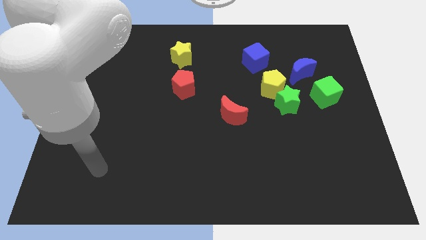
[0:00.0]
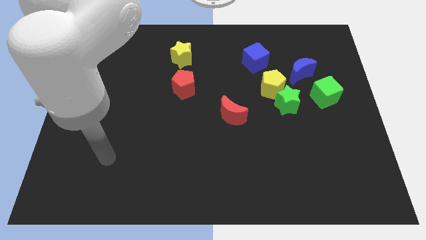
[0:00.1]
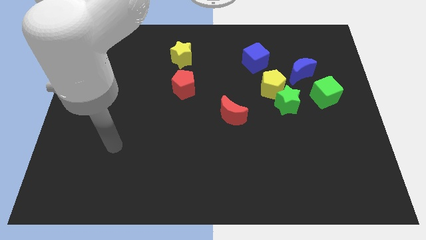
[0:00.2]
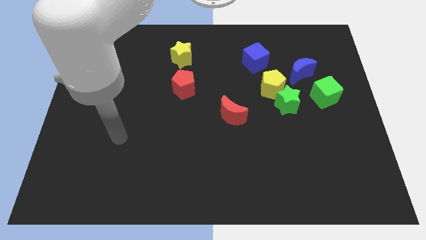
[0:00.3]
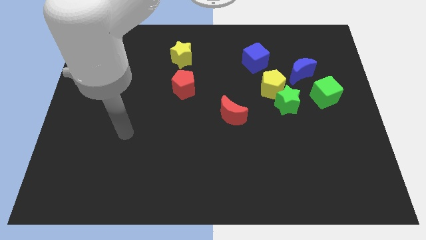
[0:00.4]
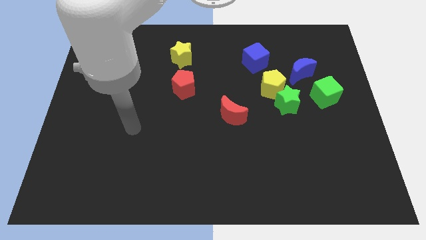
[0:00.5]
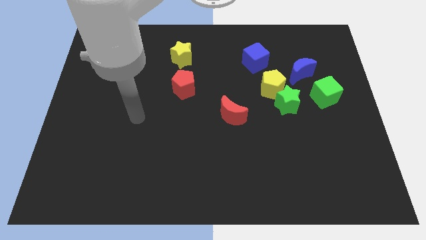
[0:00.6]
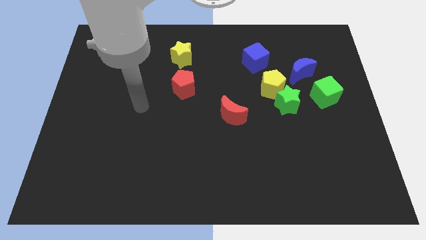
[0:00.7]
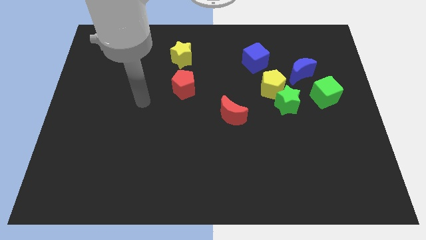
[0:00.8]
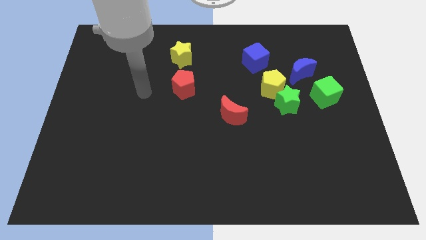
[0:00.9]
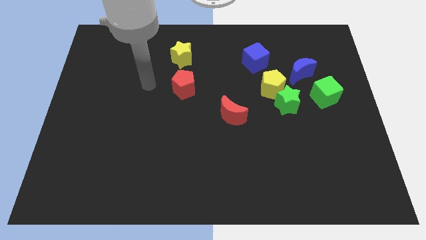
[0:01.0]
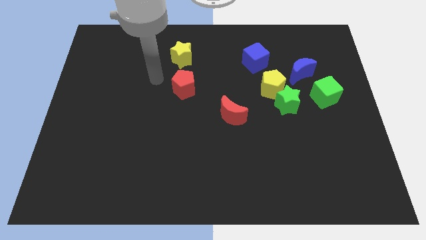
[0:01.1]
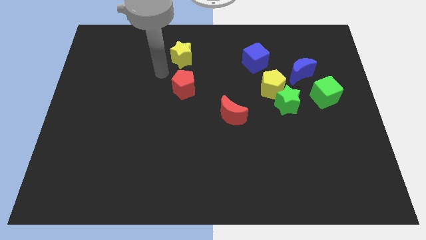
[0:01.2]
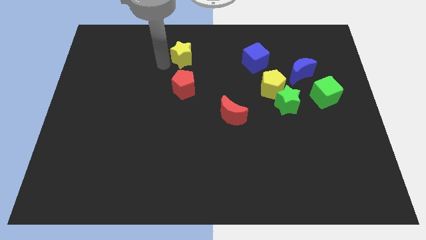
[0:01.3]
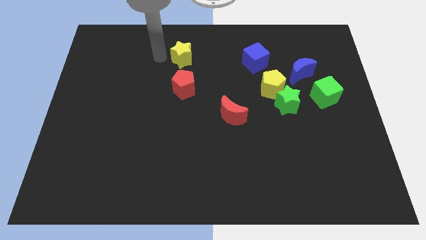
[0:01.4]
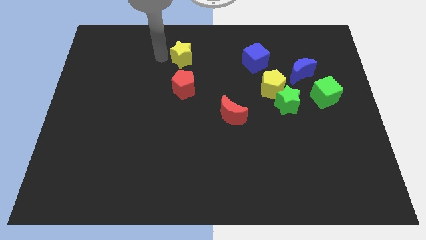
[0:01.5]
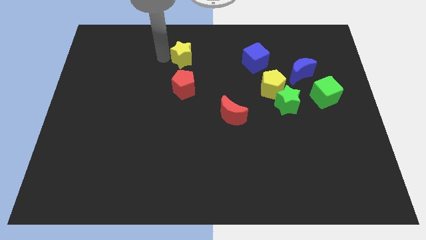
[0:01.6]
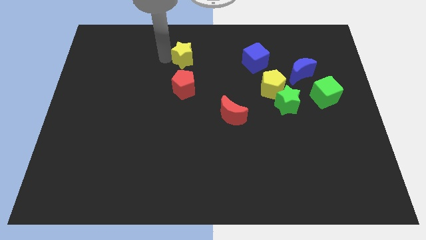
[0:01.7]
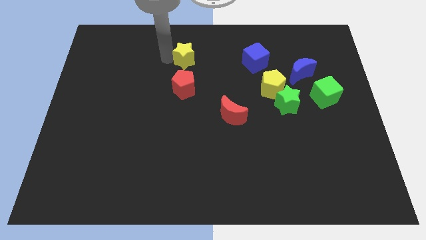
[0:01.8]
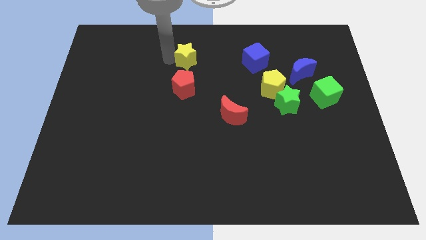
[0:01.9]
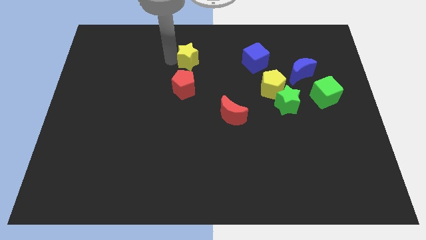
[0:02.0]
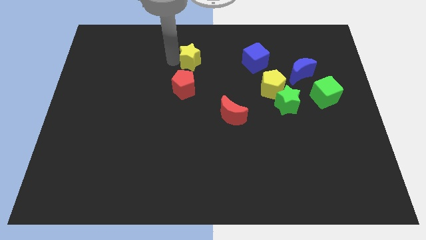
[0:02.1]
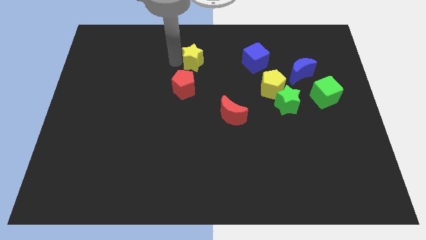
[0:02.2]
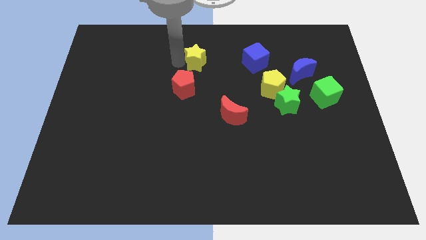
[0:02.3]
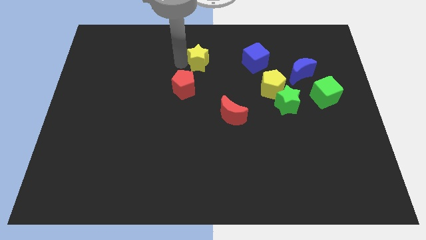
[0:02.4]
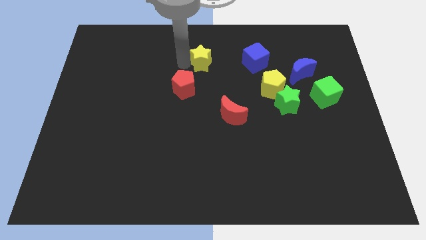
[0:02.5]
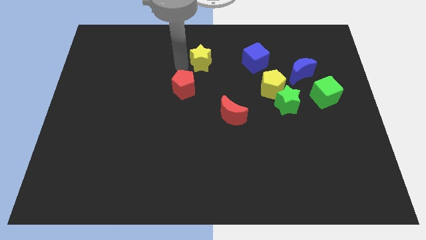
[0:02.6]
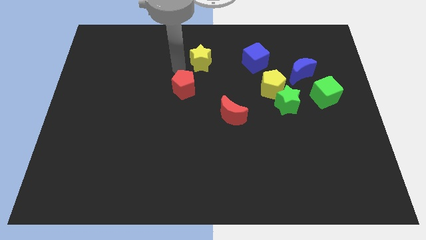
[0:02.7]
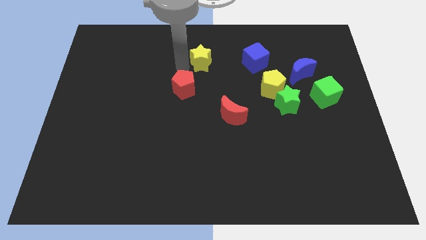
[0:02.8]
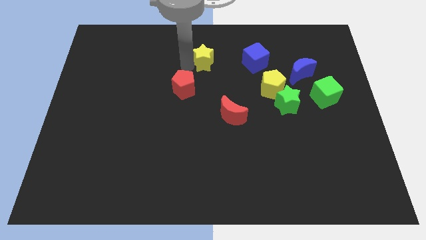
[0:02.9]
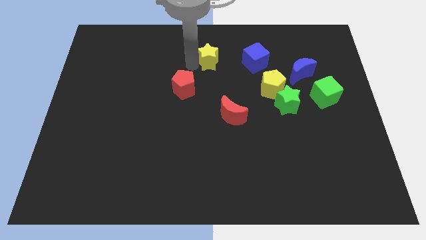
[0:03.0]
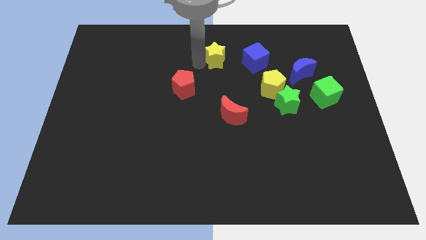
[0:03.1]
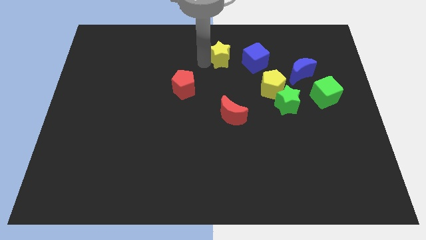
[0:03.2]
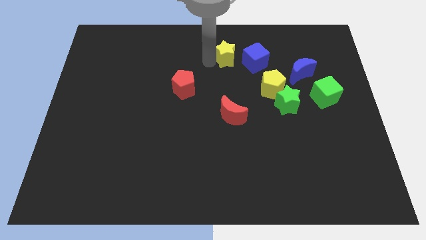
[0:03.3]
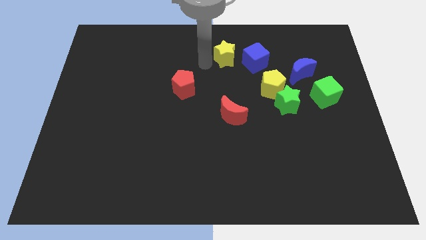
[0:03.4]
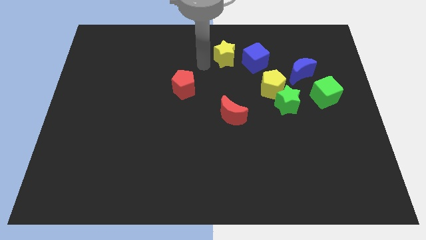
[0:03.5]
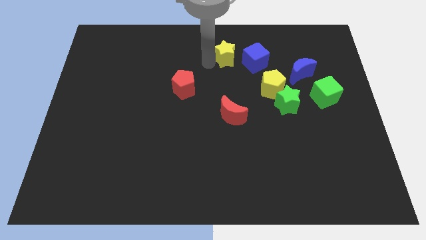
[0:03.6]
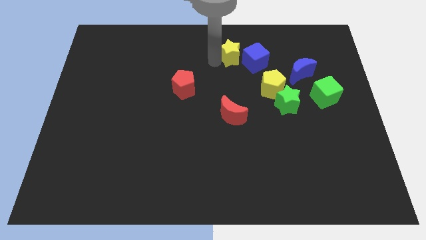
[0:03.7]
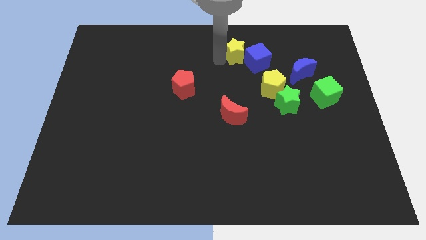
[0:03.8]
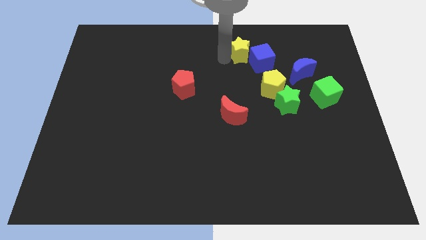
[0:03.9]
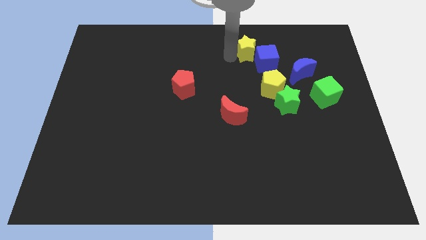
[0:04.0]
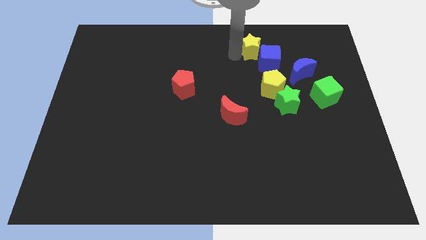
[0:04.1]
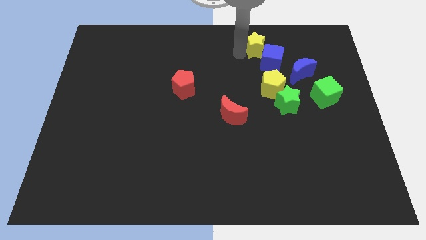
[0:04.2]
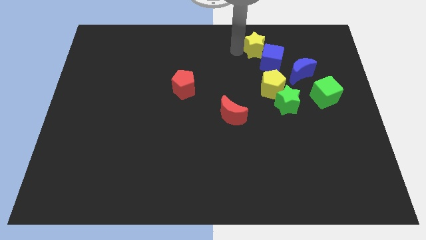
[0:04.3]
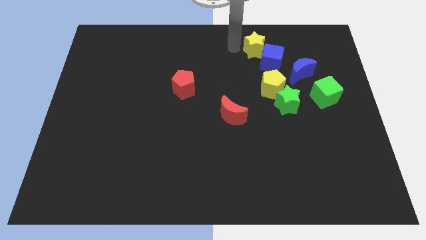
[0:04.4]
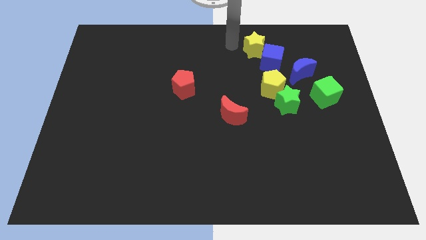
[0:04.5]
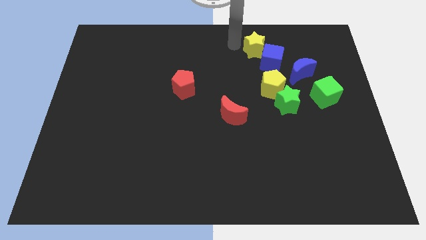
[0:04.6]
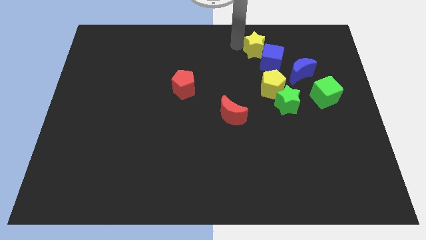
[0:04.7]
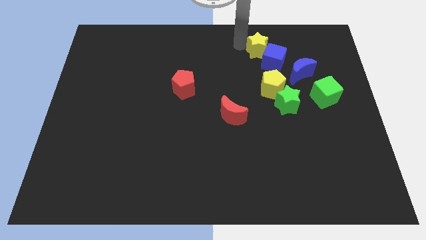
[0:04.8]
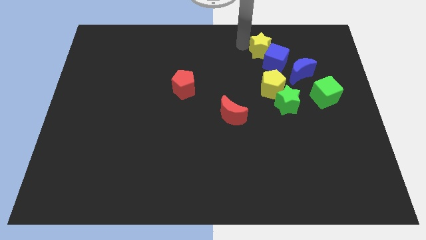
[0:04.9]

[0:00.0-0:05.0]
slide the yellow star right

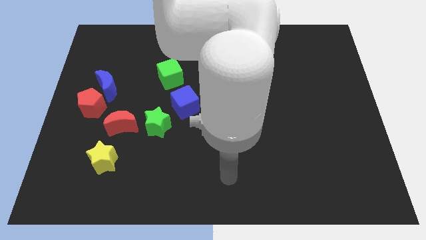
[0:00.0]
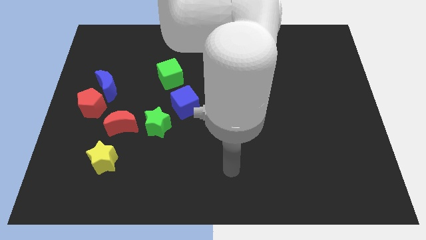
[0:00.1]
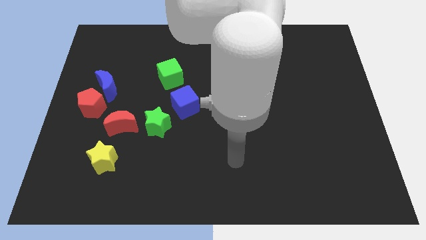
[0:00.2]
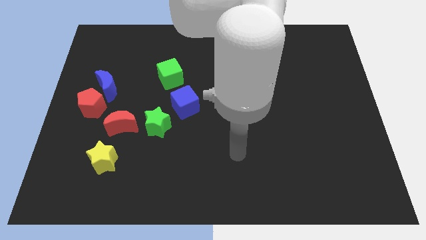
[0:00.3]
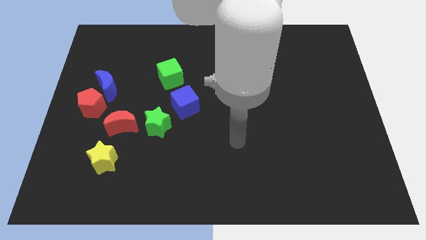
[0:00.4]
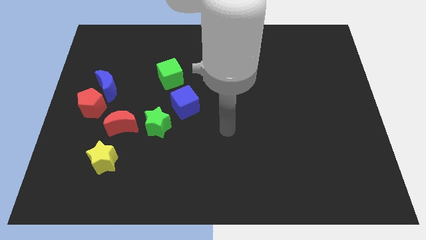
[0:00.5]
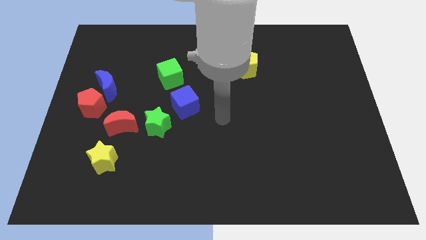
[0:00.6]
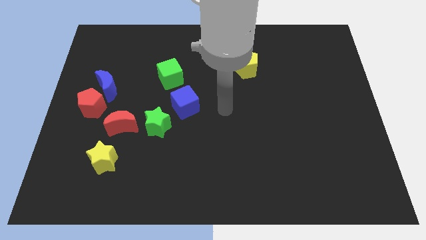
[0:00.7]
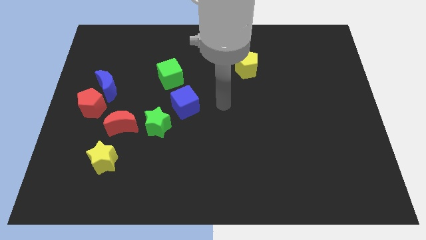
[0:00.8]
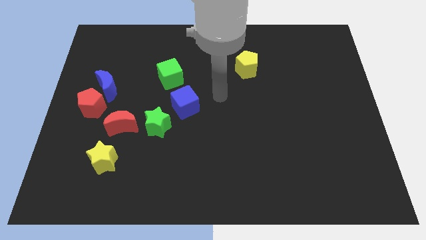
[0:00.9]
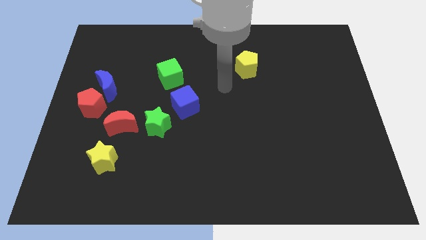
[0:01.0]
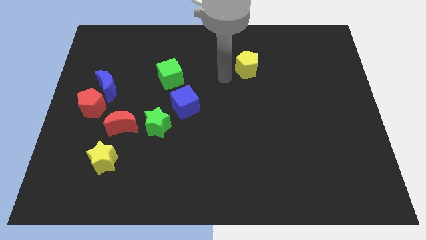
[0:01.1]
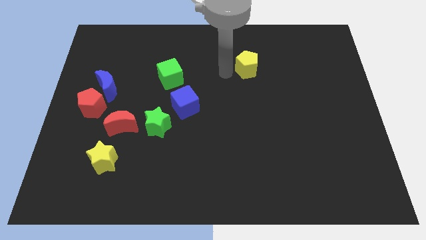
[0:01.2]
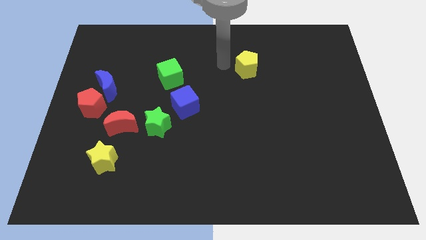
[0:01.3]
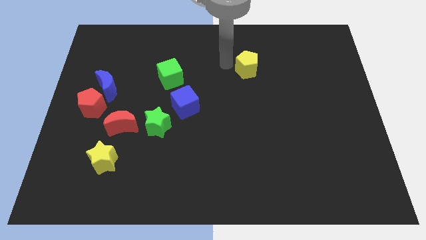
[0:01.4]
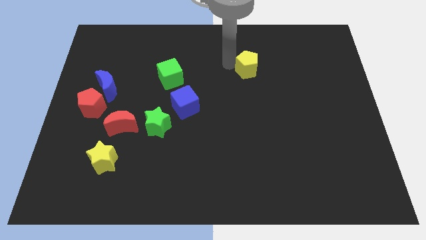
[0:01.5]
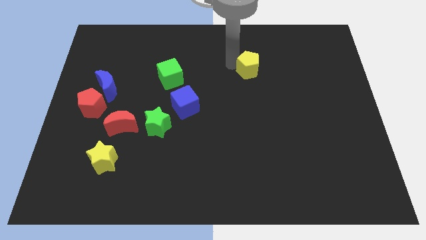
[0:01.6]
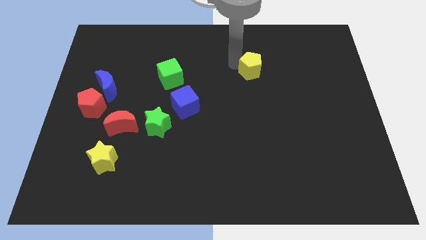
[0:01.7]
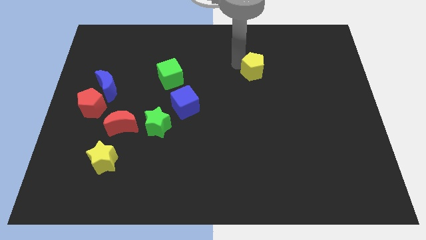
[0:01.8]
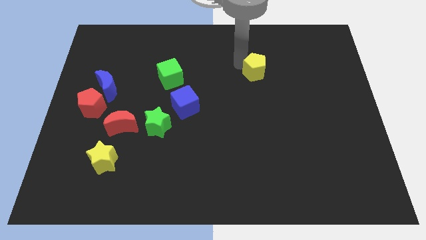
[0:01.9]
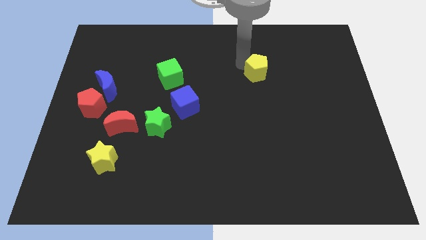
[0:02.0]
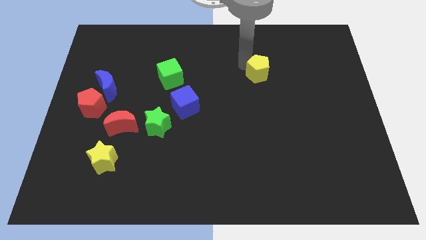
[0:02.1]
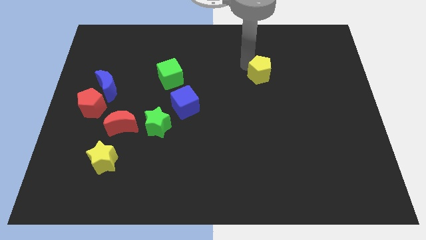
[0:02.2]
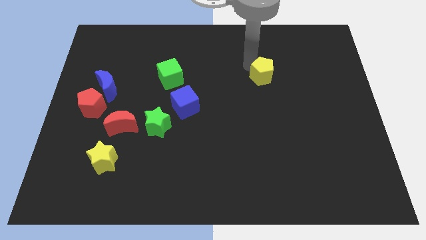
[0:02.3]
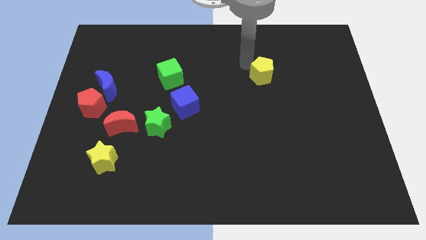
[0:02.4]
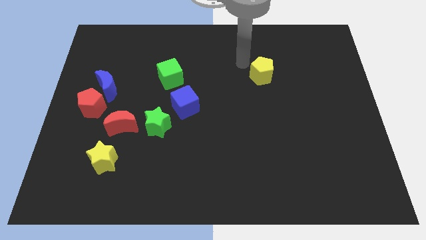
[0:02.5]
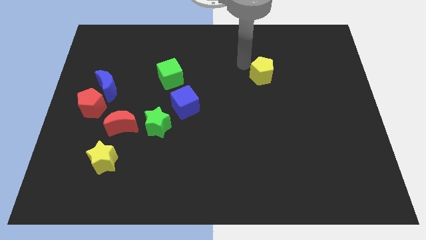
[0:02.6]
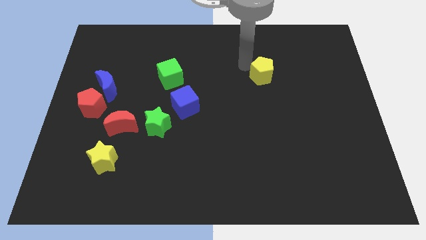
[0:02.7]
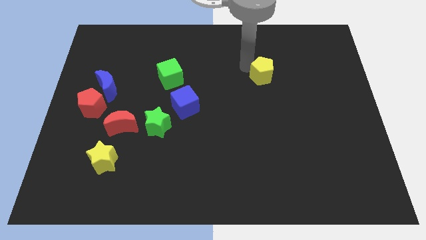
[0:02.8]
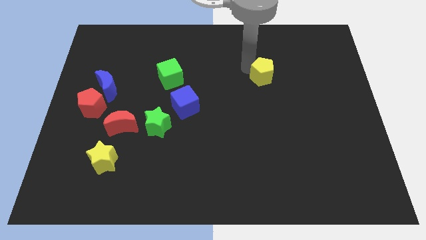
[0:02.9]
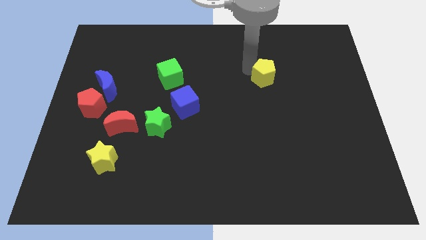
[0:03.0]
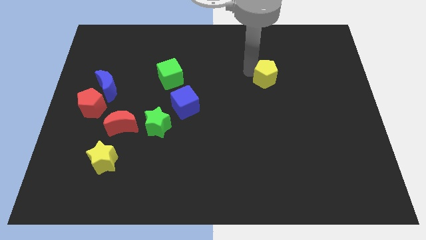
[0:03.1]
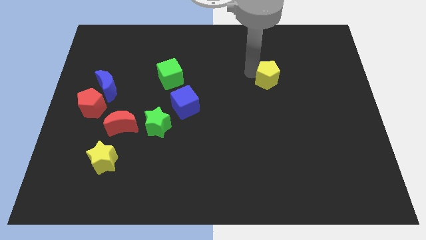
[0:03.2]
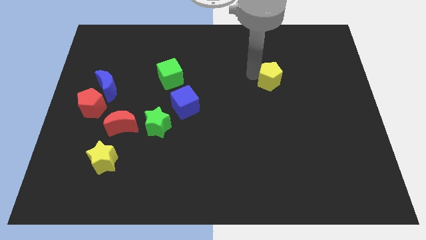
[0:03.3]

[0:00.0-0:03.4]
slide the yellow pentagon slightly down and then to the right
